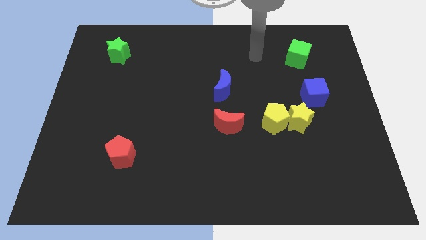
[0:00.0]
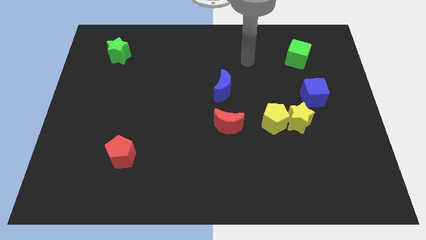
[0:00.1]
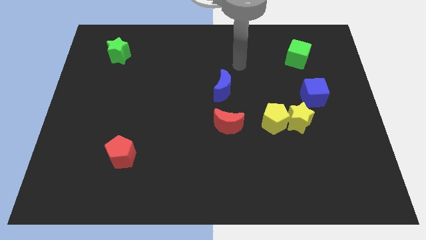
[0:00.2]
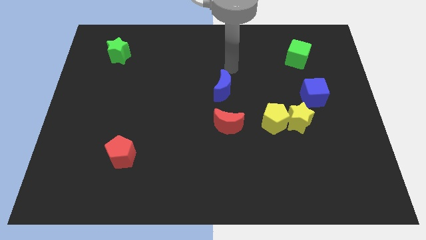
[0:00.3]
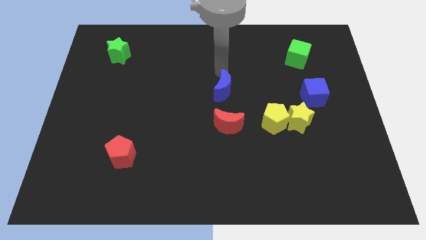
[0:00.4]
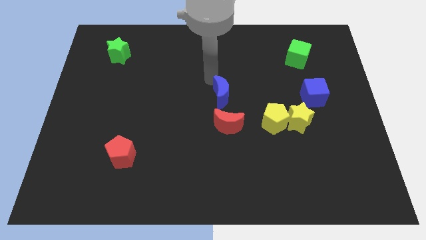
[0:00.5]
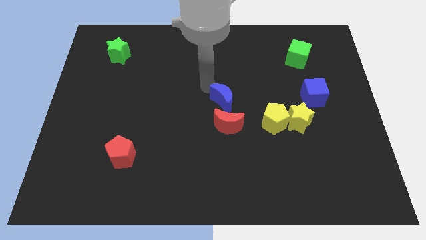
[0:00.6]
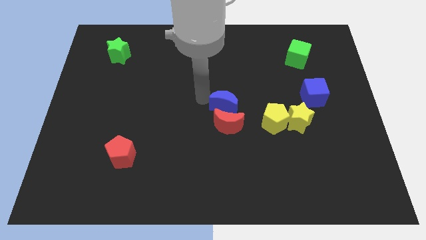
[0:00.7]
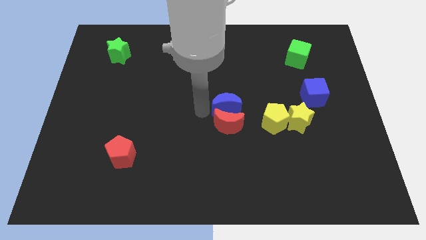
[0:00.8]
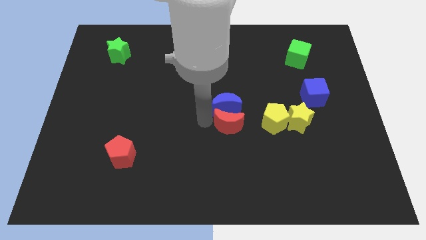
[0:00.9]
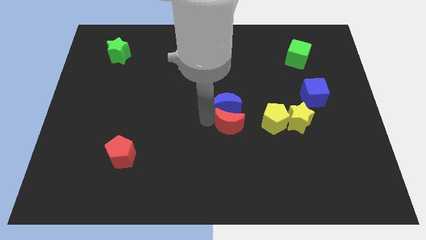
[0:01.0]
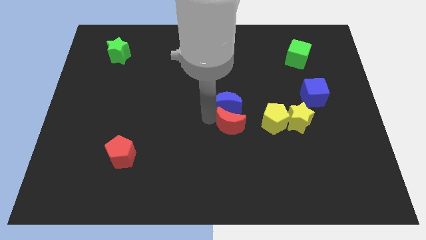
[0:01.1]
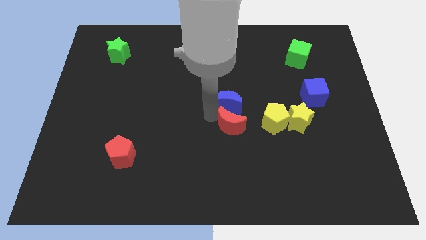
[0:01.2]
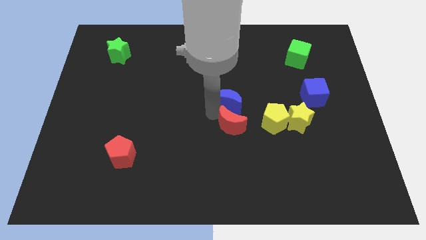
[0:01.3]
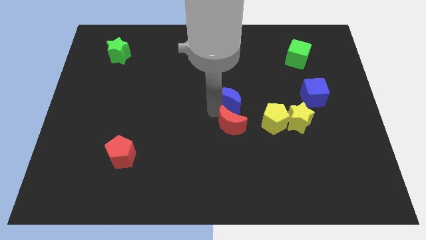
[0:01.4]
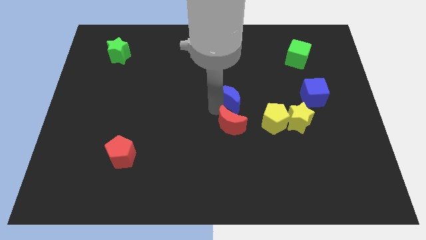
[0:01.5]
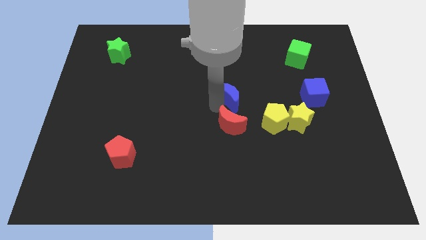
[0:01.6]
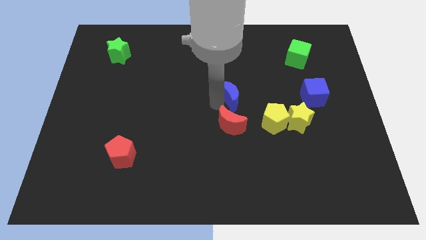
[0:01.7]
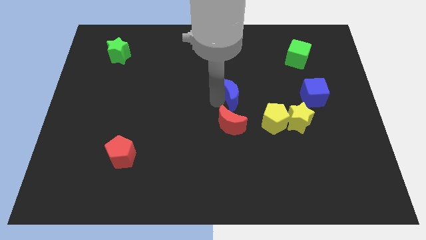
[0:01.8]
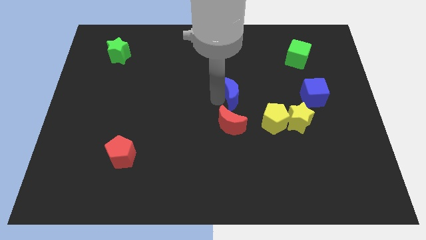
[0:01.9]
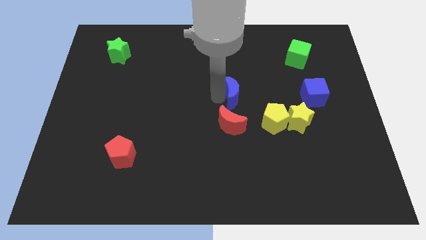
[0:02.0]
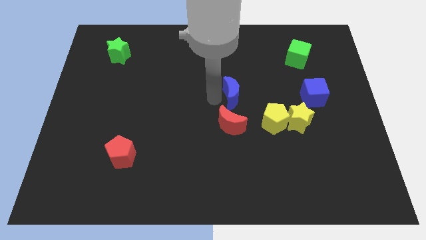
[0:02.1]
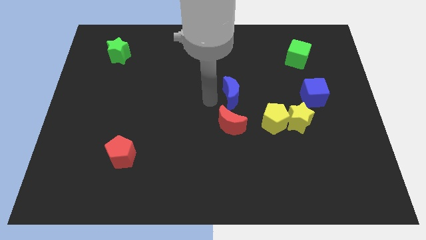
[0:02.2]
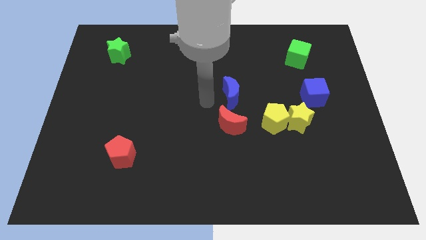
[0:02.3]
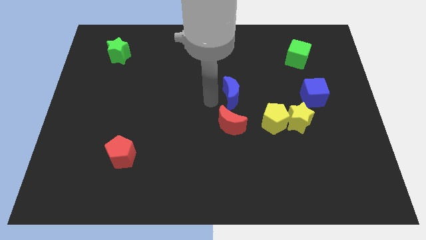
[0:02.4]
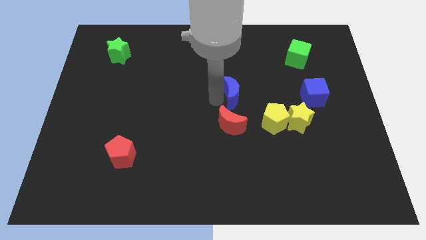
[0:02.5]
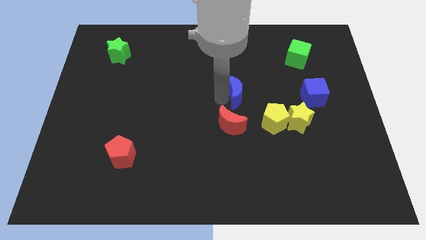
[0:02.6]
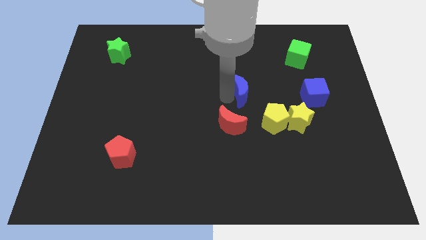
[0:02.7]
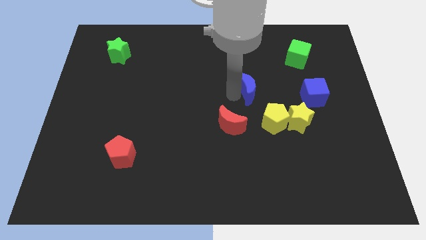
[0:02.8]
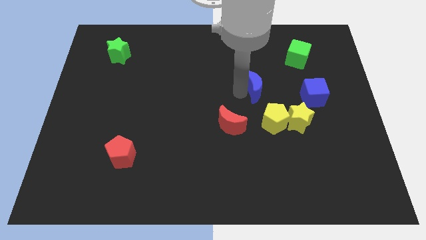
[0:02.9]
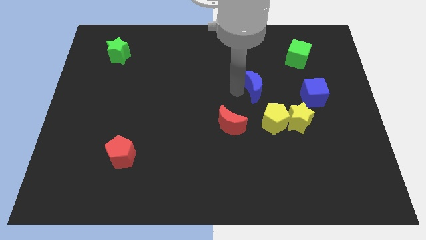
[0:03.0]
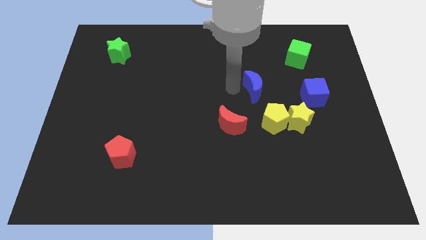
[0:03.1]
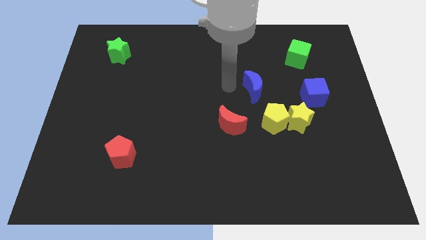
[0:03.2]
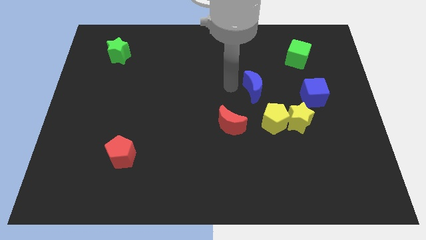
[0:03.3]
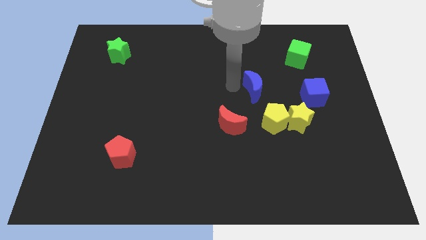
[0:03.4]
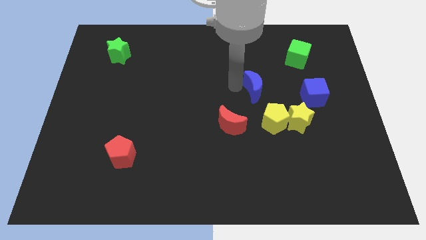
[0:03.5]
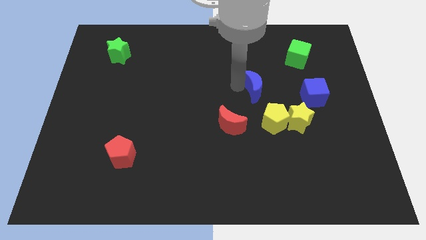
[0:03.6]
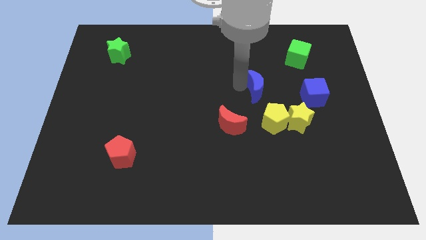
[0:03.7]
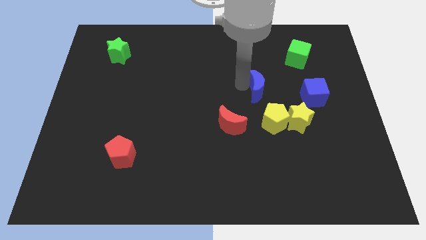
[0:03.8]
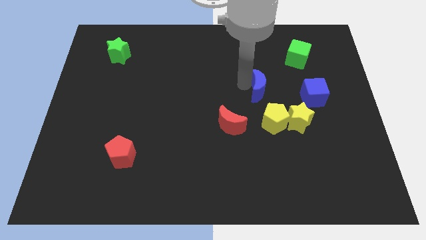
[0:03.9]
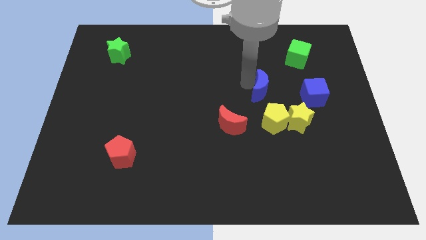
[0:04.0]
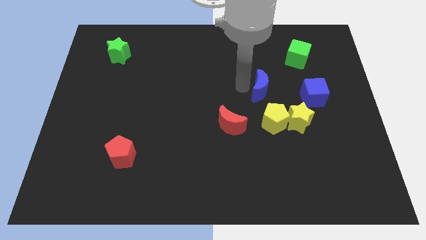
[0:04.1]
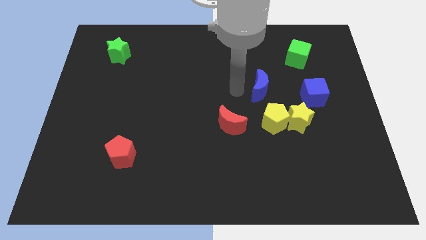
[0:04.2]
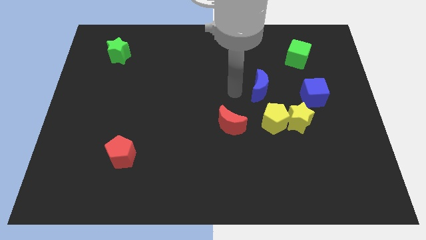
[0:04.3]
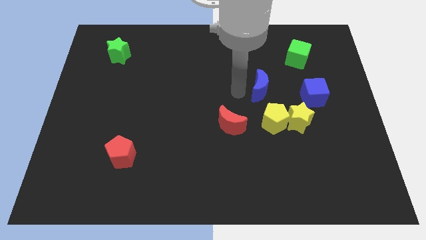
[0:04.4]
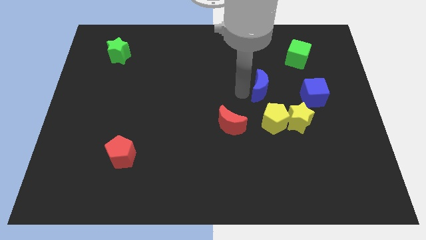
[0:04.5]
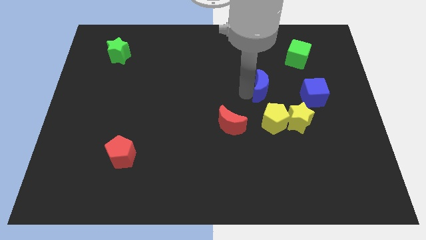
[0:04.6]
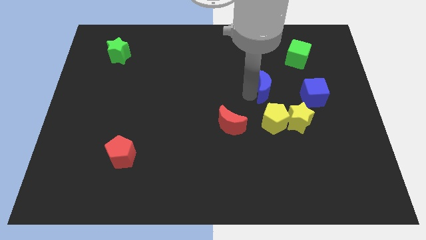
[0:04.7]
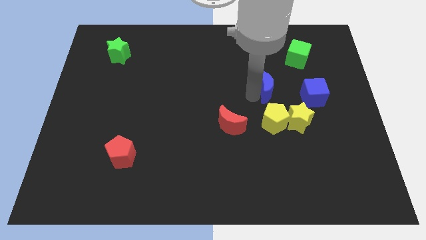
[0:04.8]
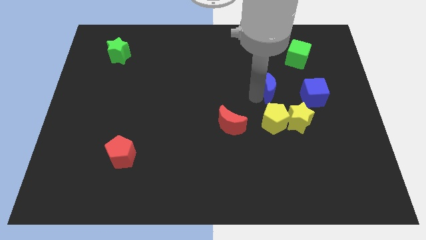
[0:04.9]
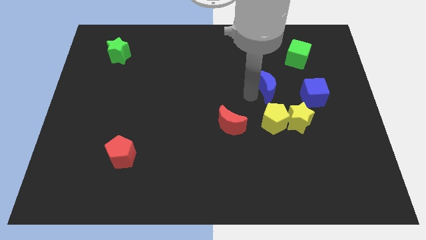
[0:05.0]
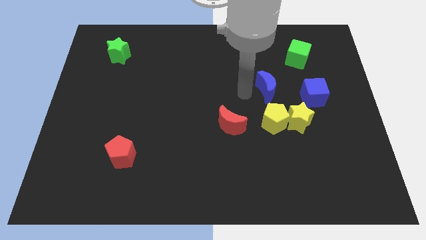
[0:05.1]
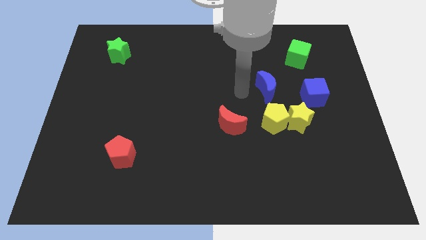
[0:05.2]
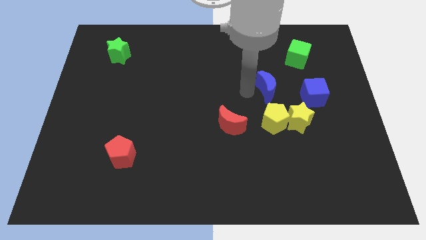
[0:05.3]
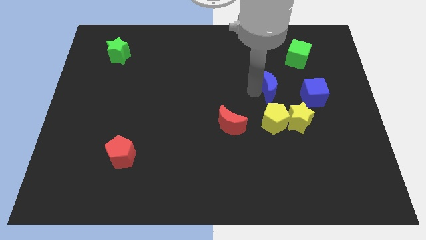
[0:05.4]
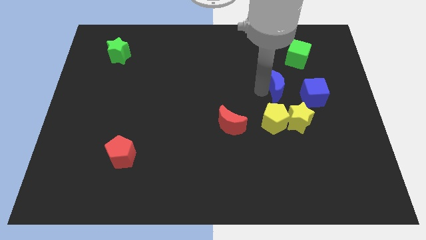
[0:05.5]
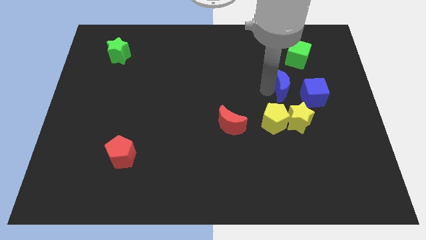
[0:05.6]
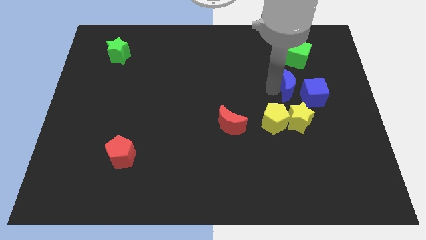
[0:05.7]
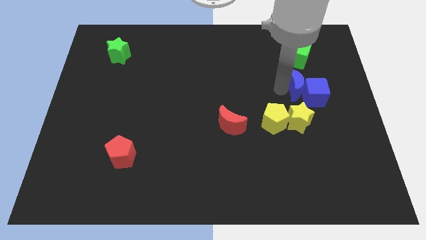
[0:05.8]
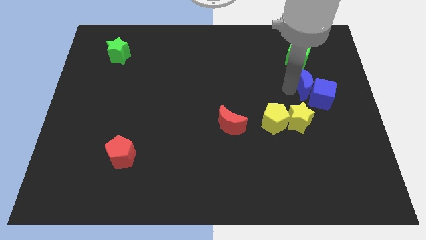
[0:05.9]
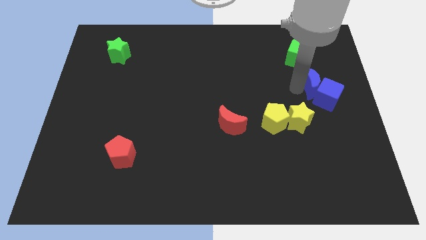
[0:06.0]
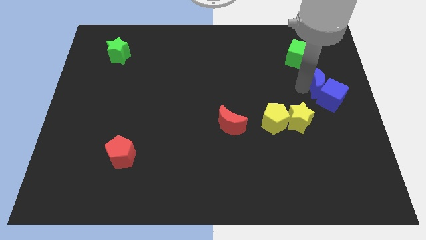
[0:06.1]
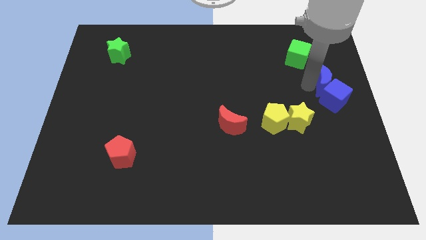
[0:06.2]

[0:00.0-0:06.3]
slide the blue moon to the center right
